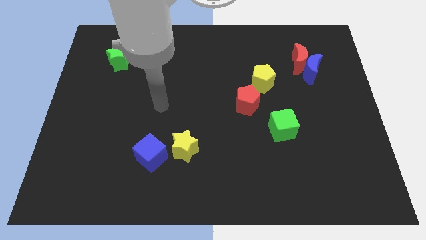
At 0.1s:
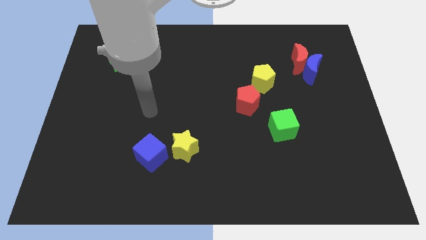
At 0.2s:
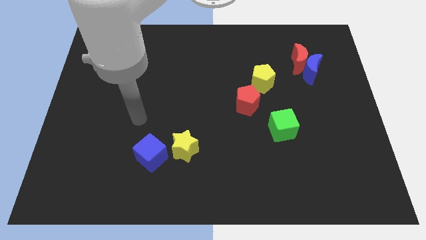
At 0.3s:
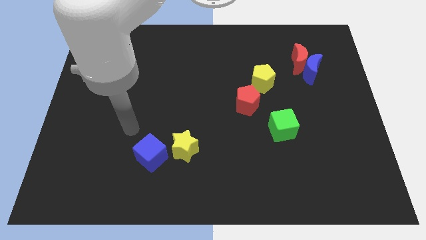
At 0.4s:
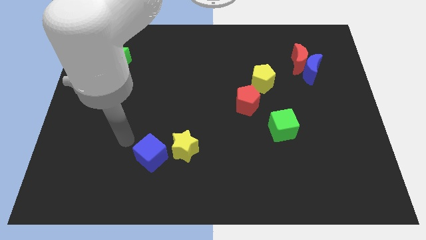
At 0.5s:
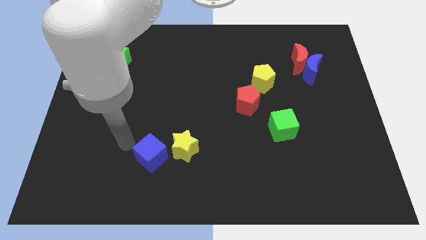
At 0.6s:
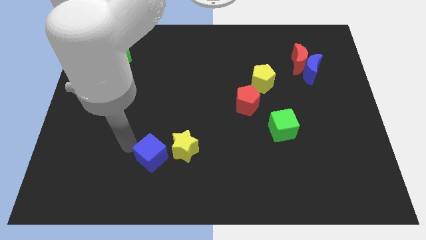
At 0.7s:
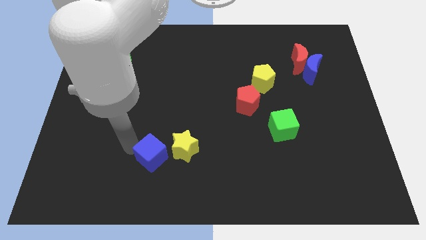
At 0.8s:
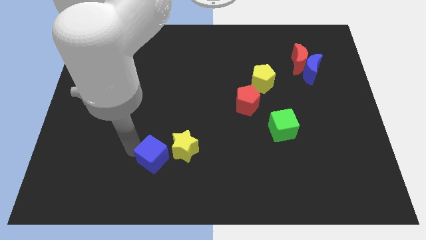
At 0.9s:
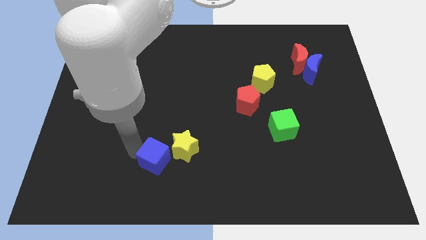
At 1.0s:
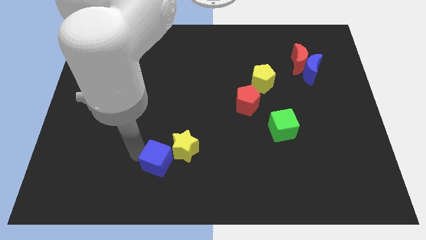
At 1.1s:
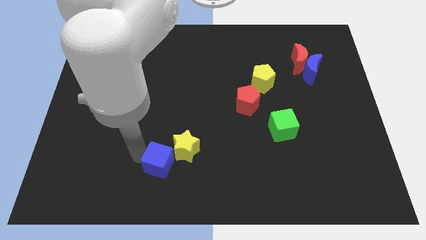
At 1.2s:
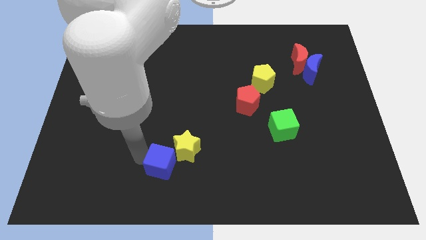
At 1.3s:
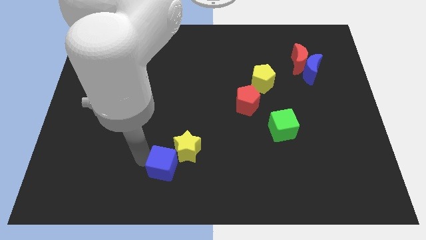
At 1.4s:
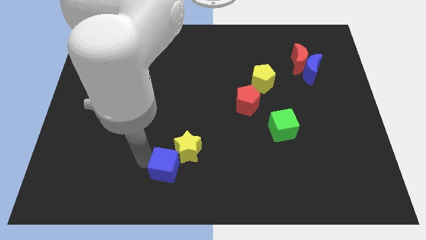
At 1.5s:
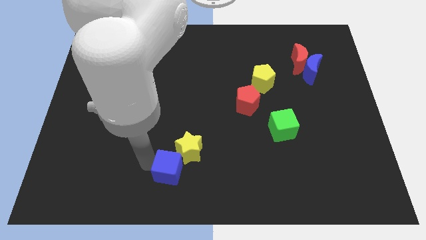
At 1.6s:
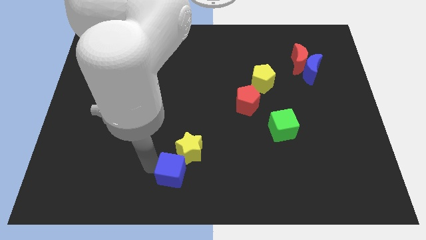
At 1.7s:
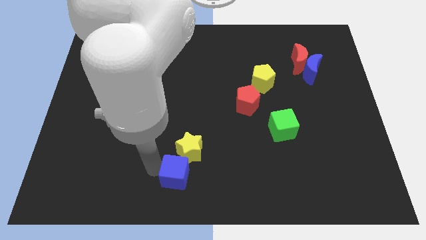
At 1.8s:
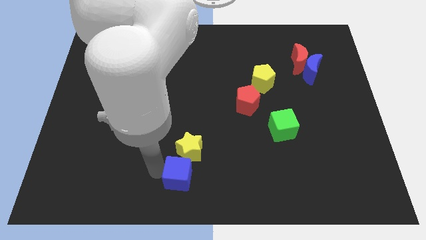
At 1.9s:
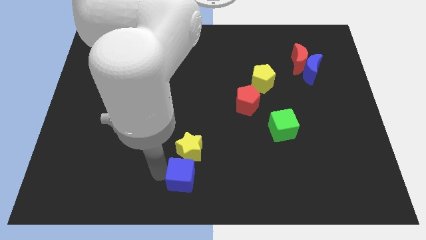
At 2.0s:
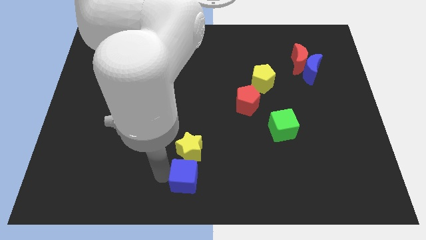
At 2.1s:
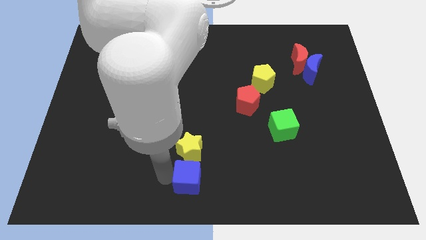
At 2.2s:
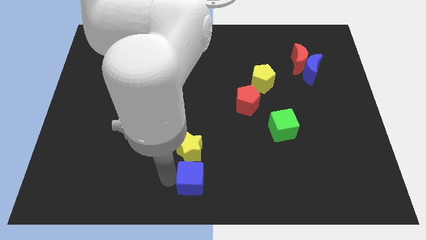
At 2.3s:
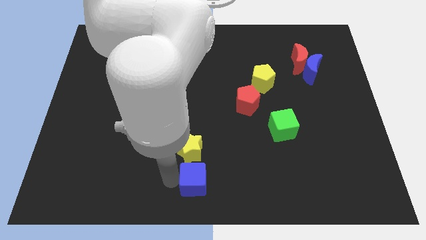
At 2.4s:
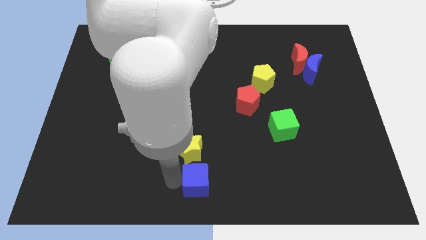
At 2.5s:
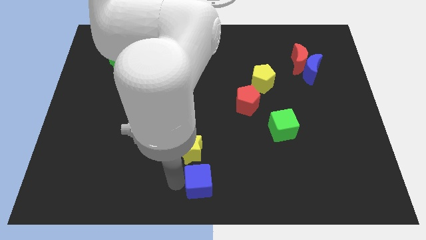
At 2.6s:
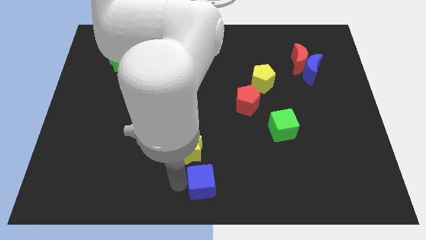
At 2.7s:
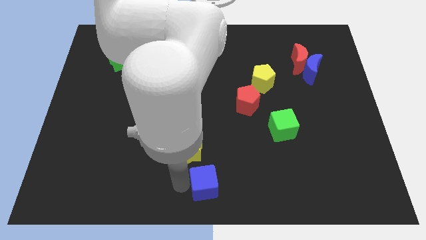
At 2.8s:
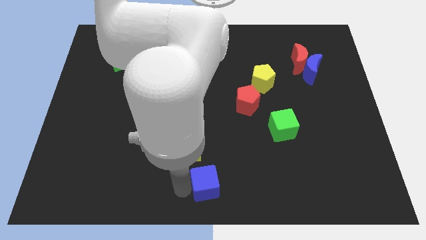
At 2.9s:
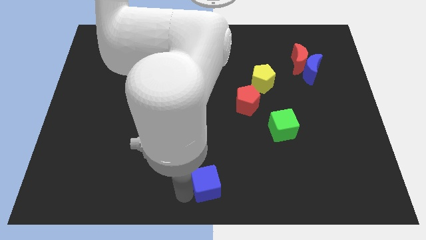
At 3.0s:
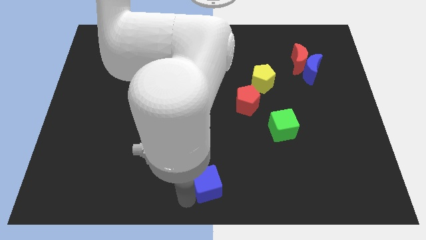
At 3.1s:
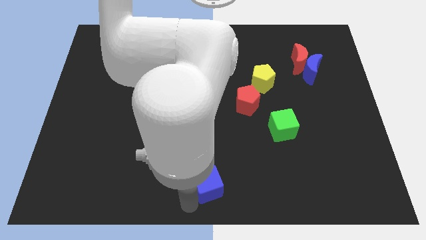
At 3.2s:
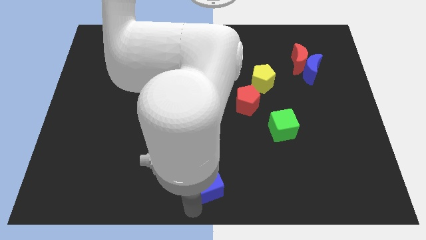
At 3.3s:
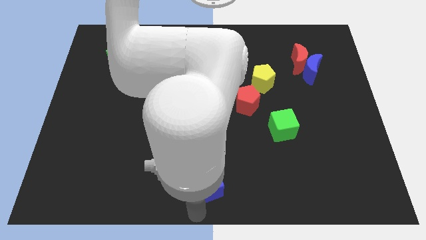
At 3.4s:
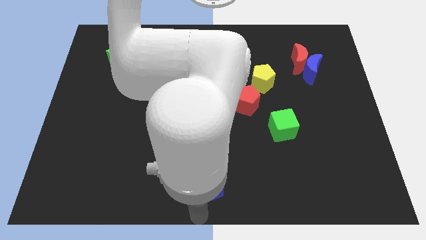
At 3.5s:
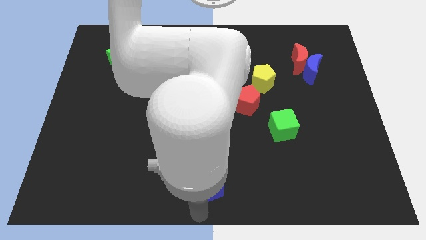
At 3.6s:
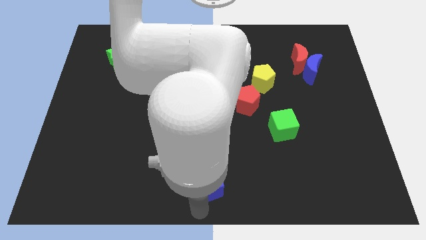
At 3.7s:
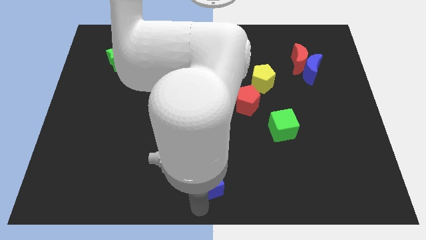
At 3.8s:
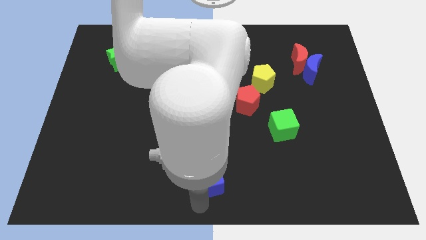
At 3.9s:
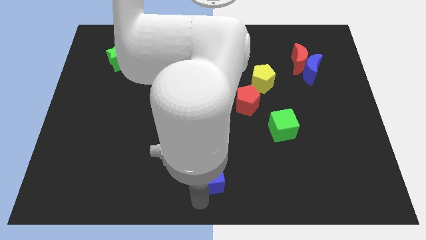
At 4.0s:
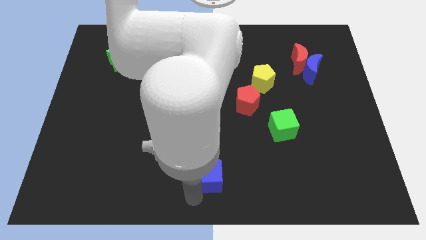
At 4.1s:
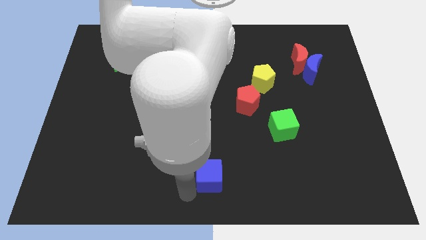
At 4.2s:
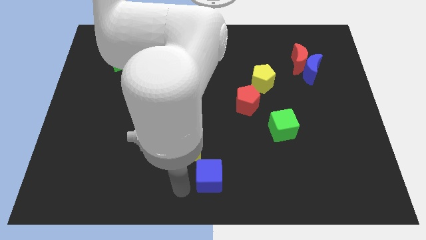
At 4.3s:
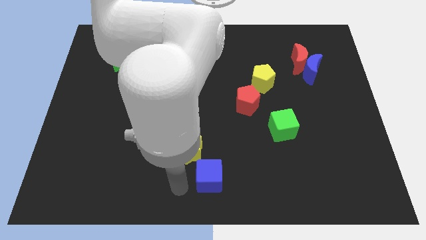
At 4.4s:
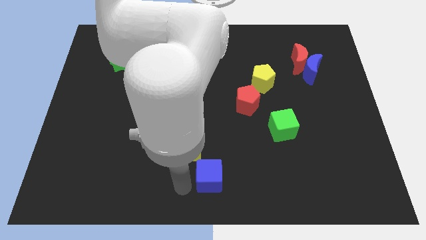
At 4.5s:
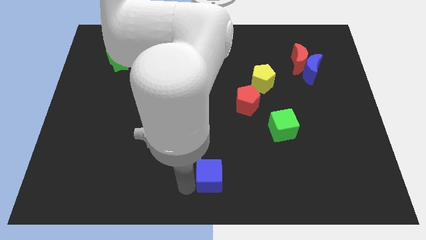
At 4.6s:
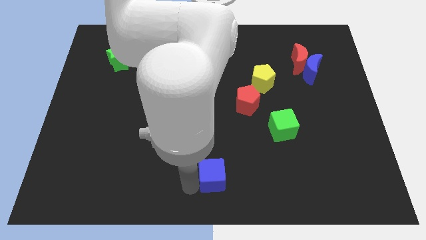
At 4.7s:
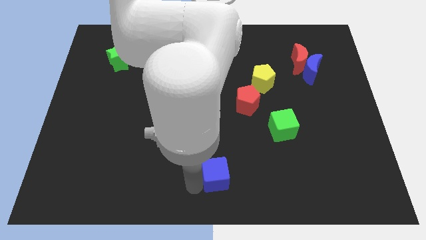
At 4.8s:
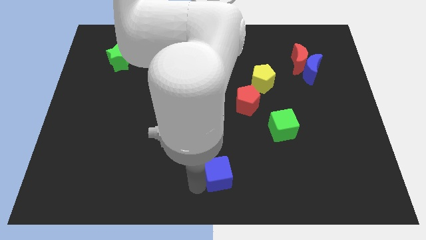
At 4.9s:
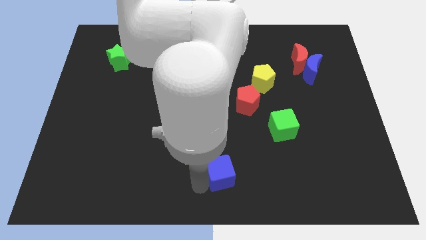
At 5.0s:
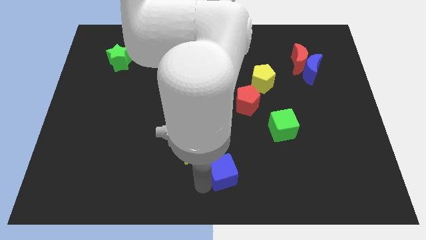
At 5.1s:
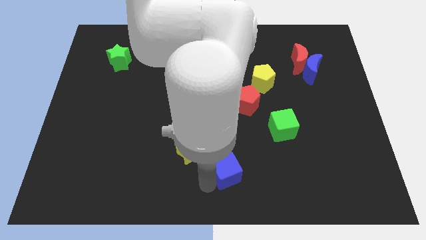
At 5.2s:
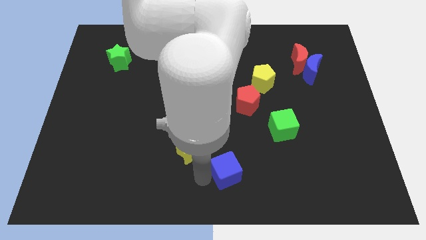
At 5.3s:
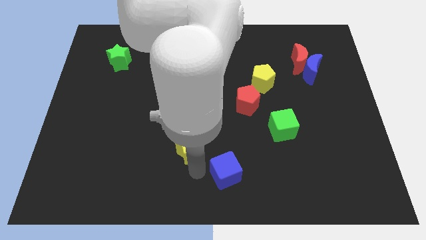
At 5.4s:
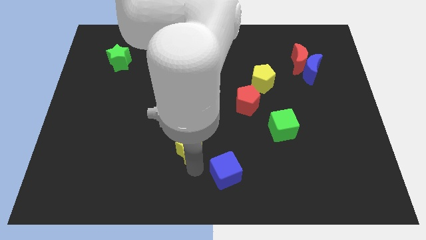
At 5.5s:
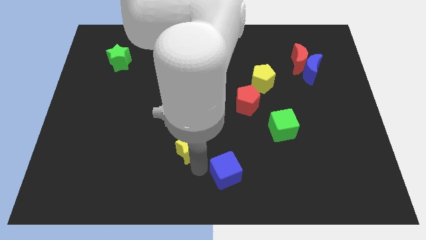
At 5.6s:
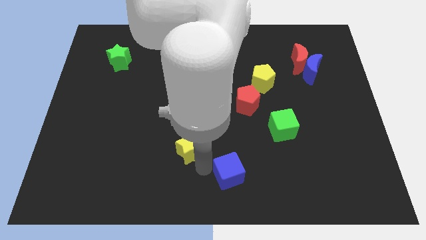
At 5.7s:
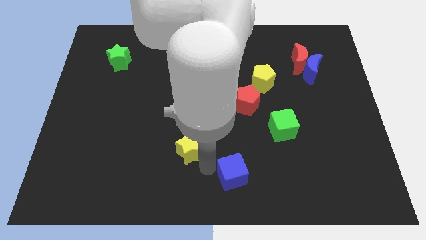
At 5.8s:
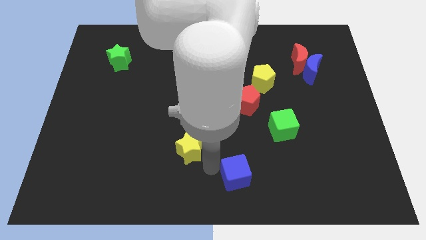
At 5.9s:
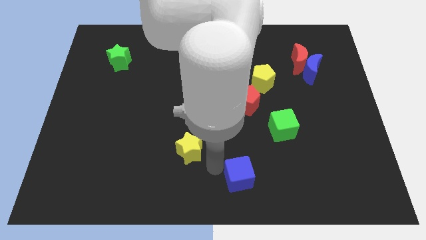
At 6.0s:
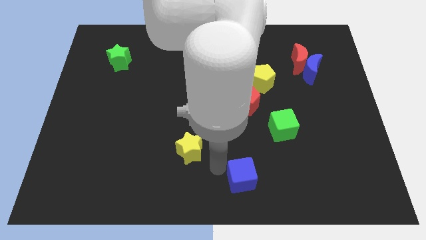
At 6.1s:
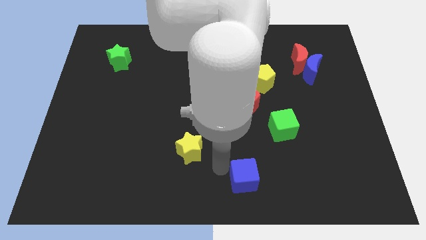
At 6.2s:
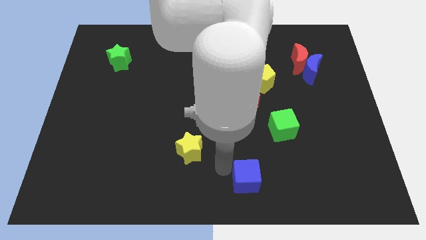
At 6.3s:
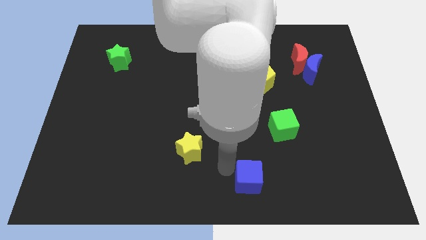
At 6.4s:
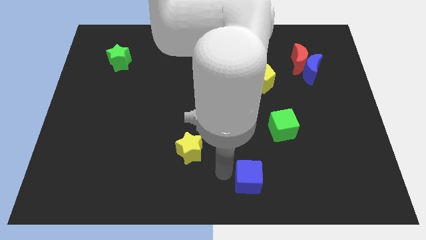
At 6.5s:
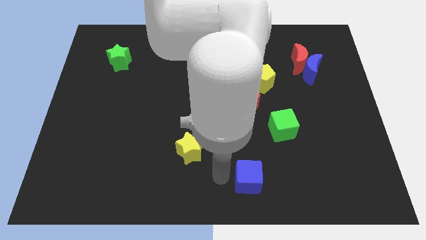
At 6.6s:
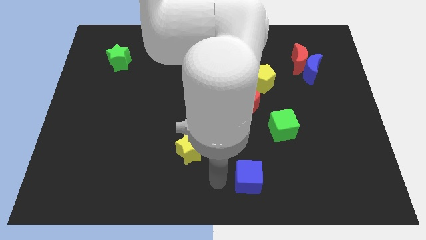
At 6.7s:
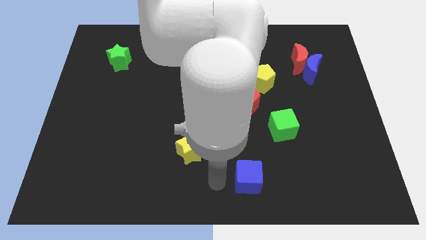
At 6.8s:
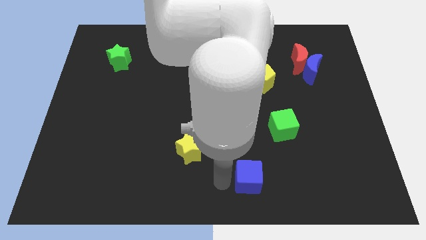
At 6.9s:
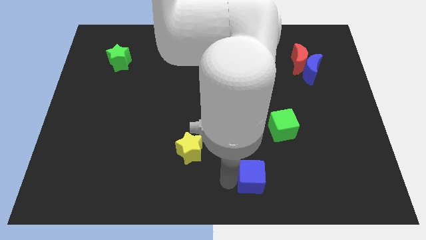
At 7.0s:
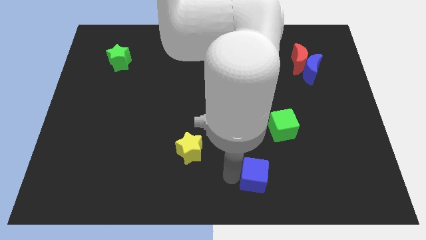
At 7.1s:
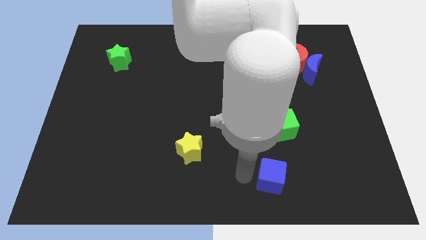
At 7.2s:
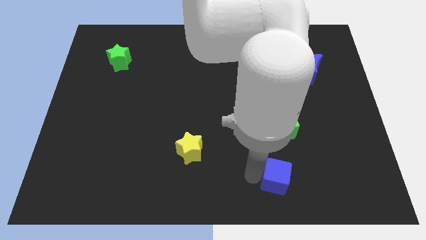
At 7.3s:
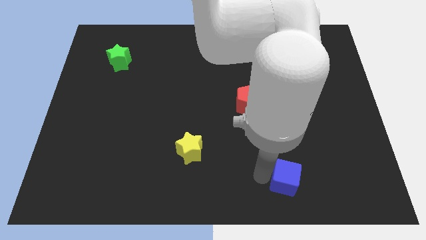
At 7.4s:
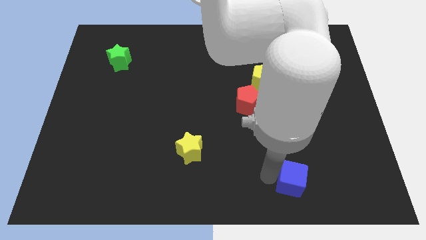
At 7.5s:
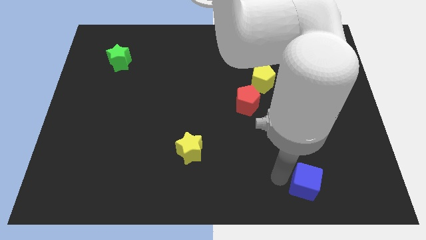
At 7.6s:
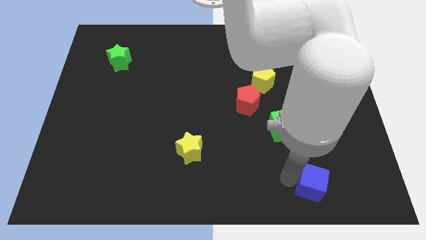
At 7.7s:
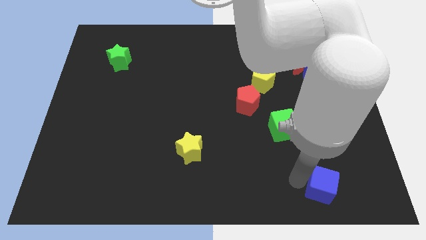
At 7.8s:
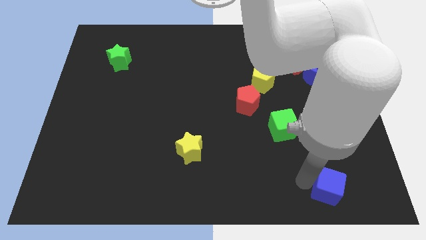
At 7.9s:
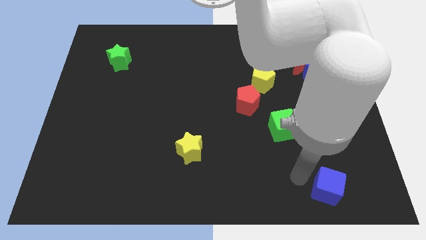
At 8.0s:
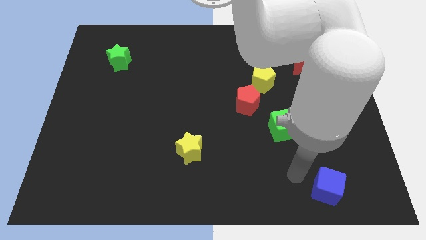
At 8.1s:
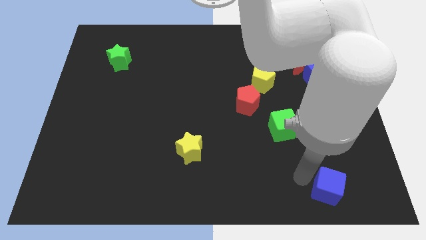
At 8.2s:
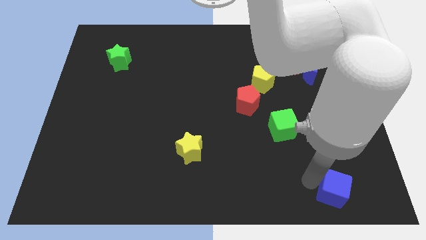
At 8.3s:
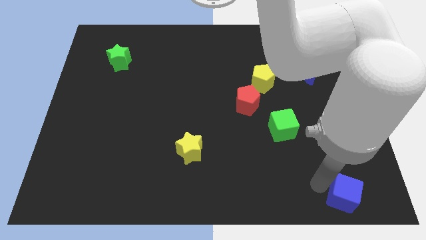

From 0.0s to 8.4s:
move the blue cube to the bottom right of the board
